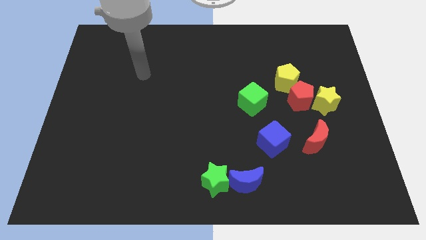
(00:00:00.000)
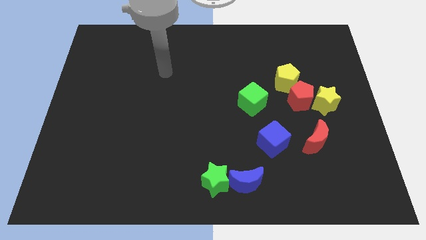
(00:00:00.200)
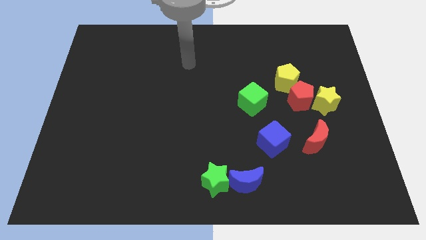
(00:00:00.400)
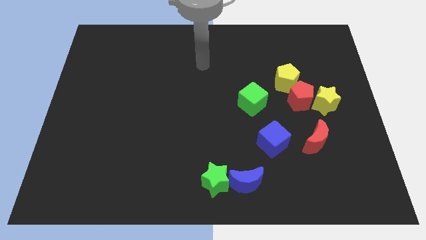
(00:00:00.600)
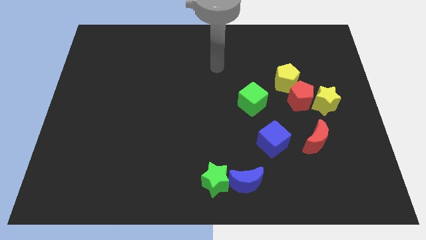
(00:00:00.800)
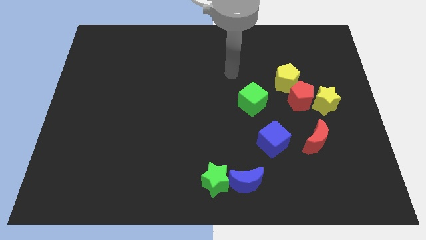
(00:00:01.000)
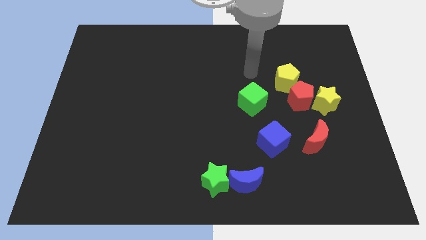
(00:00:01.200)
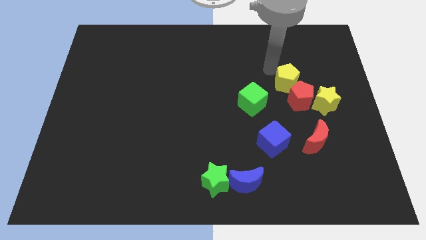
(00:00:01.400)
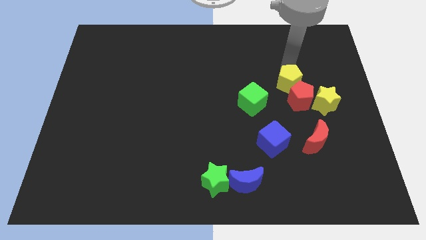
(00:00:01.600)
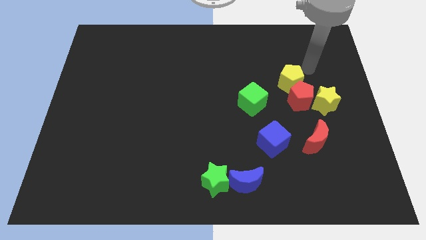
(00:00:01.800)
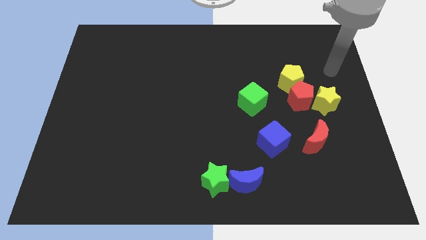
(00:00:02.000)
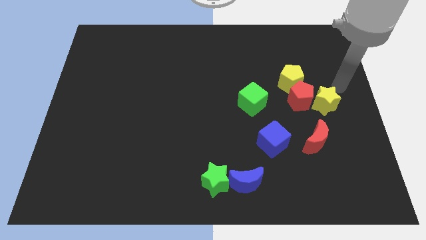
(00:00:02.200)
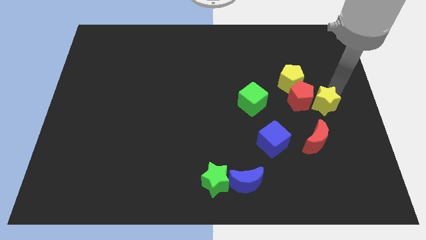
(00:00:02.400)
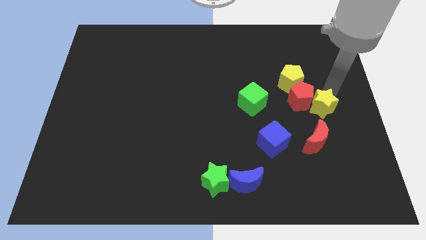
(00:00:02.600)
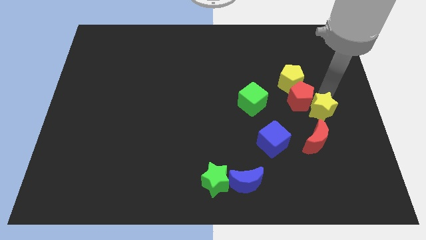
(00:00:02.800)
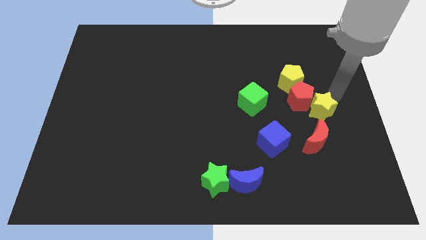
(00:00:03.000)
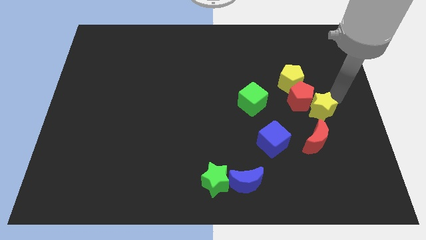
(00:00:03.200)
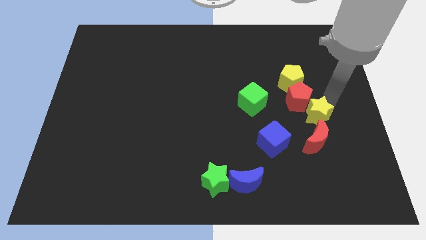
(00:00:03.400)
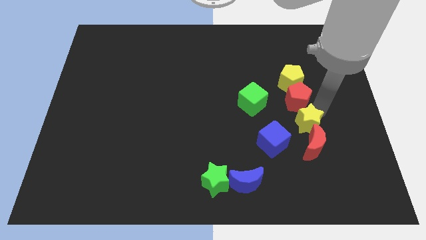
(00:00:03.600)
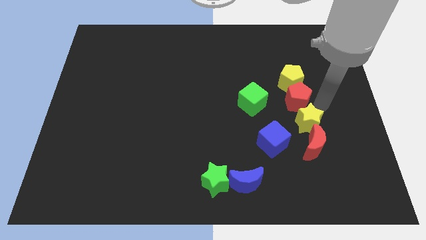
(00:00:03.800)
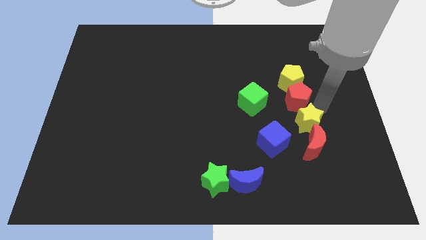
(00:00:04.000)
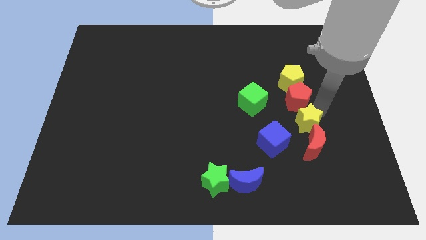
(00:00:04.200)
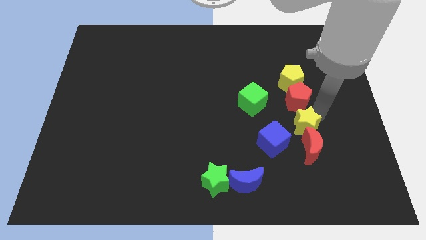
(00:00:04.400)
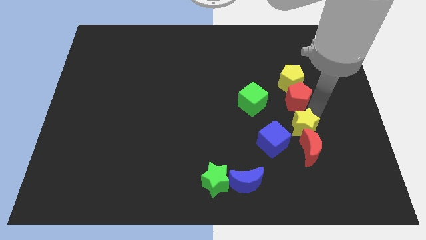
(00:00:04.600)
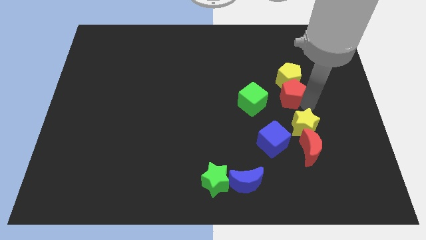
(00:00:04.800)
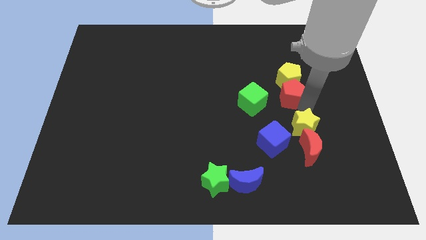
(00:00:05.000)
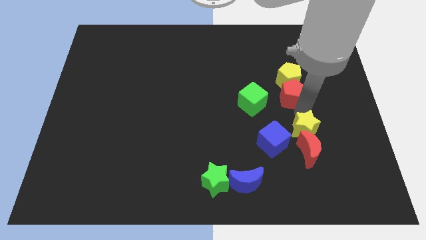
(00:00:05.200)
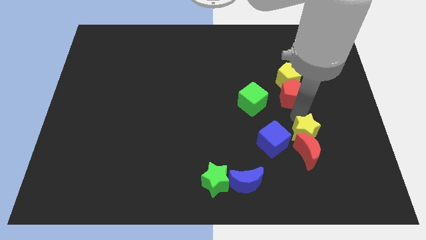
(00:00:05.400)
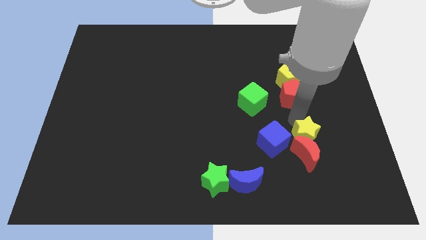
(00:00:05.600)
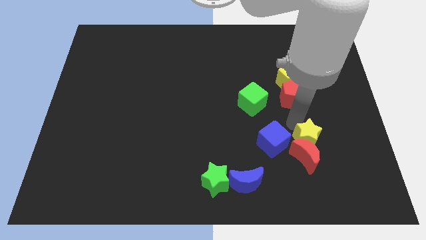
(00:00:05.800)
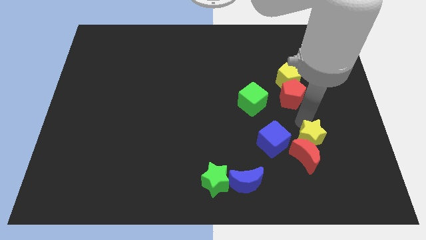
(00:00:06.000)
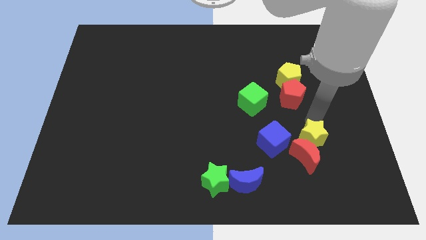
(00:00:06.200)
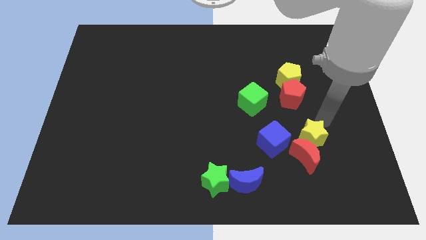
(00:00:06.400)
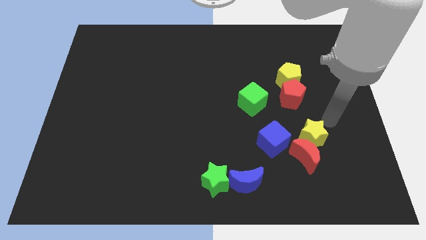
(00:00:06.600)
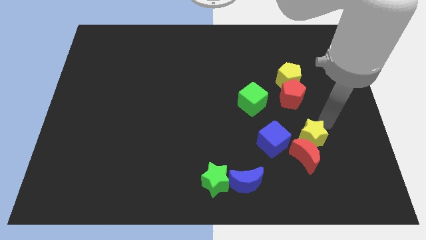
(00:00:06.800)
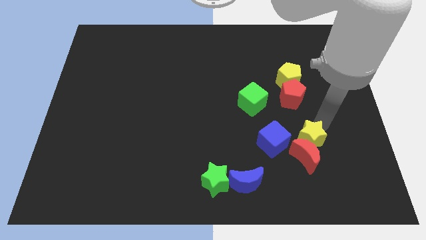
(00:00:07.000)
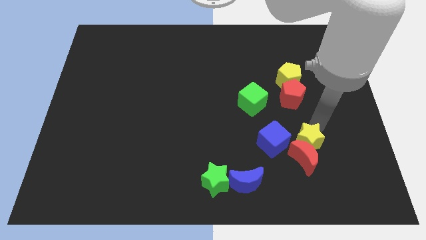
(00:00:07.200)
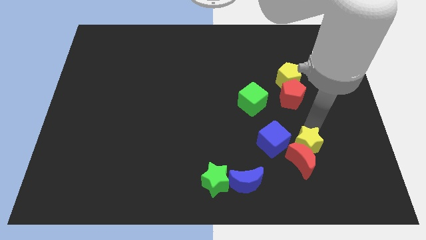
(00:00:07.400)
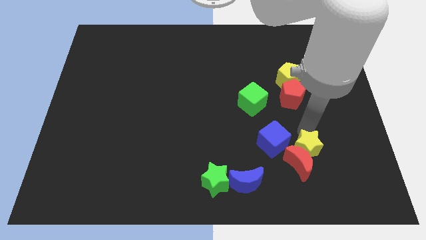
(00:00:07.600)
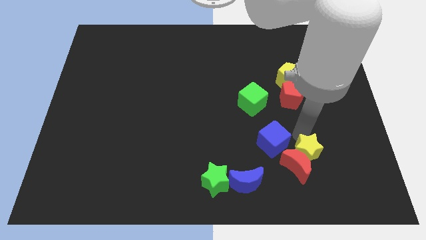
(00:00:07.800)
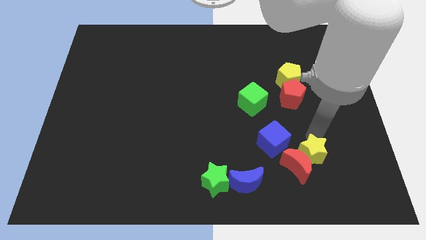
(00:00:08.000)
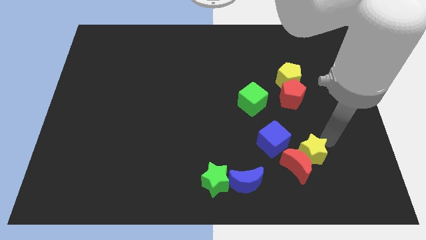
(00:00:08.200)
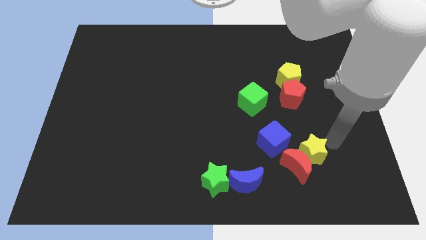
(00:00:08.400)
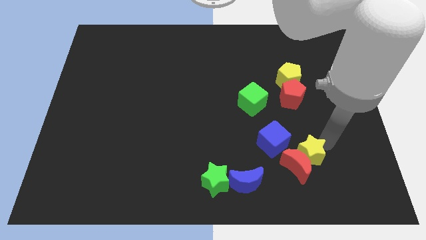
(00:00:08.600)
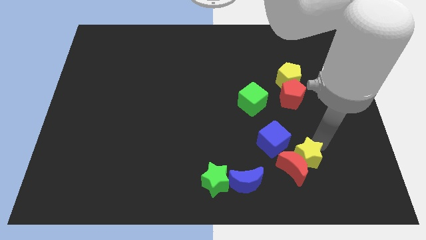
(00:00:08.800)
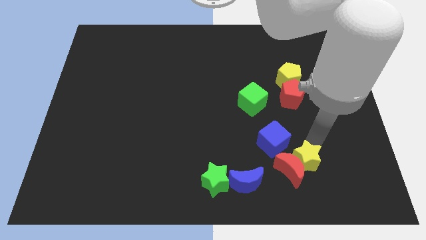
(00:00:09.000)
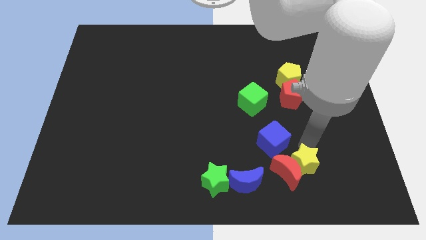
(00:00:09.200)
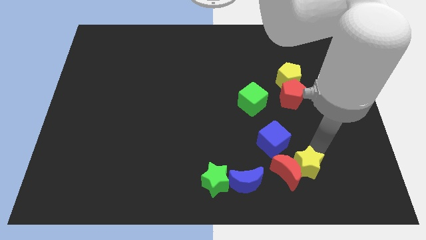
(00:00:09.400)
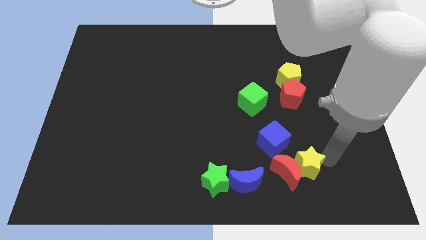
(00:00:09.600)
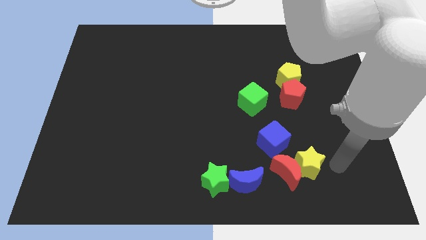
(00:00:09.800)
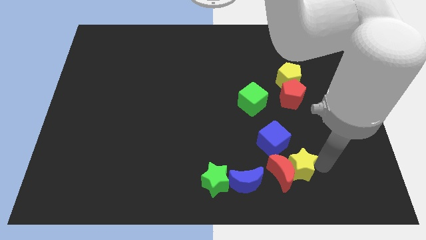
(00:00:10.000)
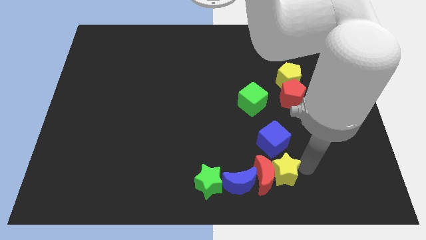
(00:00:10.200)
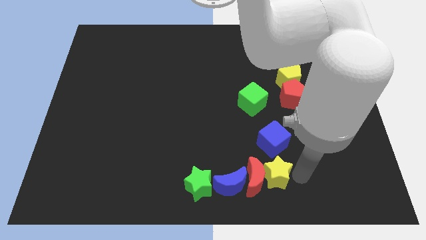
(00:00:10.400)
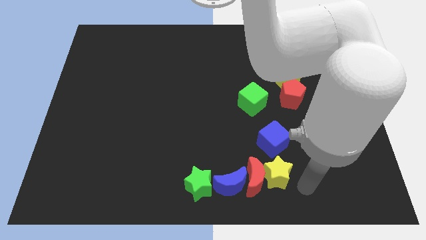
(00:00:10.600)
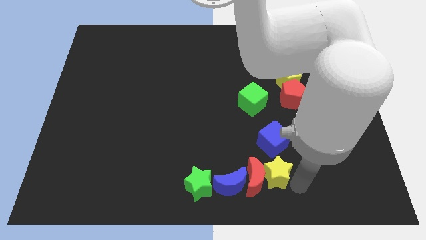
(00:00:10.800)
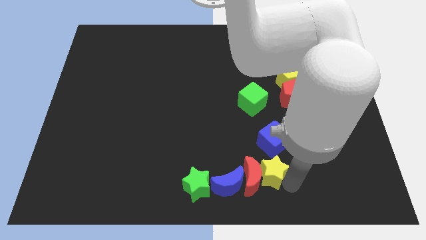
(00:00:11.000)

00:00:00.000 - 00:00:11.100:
put the yellow star diagonally down and to the left of the blue cube

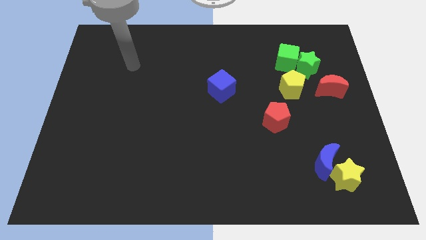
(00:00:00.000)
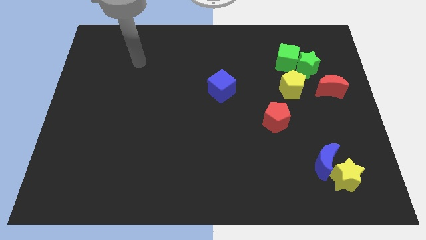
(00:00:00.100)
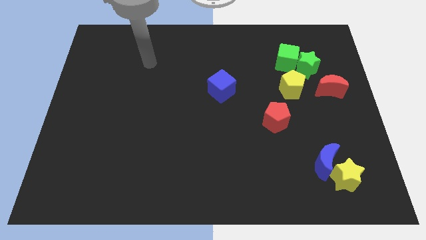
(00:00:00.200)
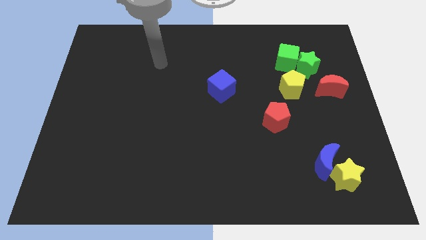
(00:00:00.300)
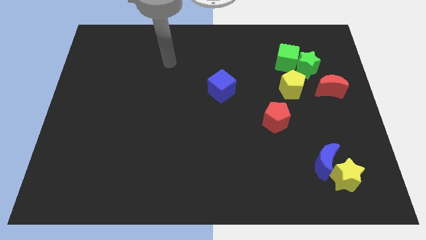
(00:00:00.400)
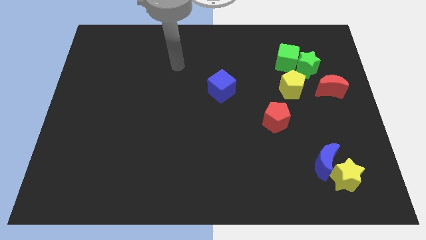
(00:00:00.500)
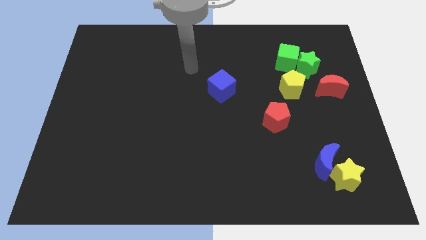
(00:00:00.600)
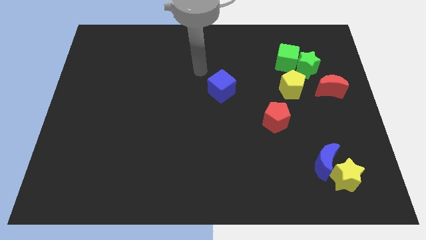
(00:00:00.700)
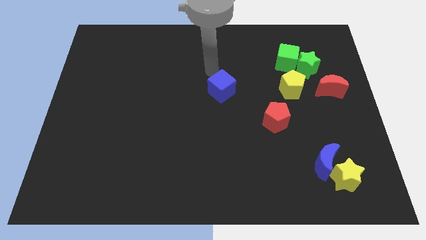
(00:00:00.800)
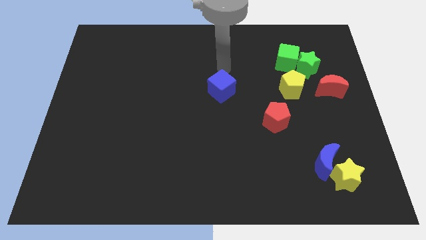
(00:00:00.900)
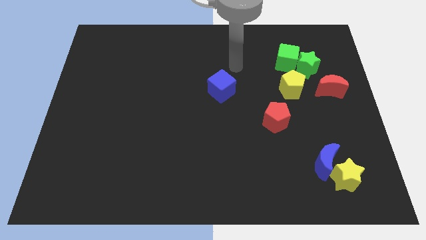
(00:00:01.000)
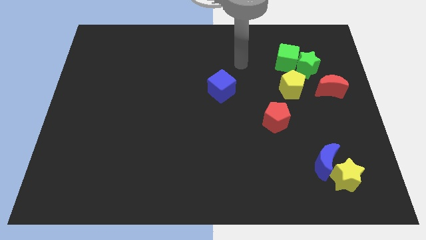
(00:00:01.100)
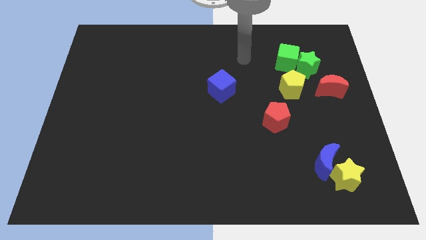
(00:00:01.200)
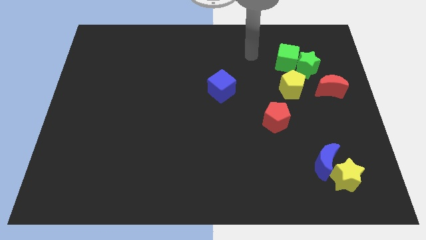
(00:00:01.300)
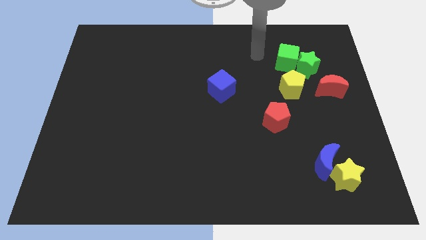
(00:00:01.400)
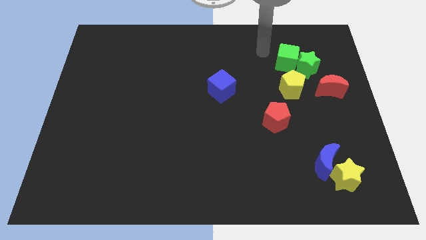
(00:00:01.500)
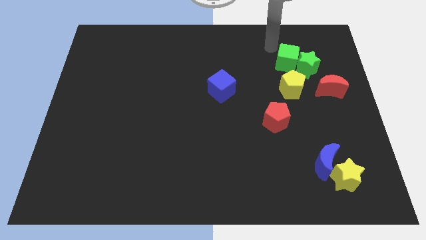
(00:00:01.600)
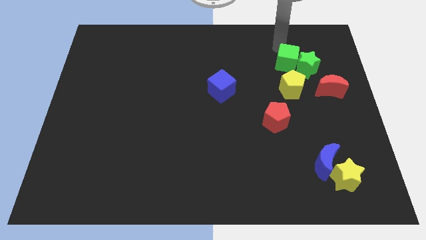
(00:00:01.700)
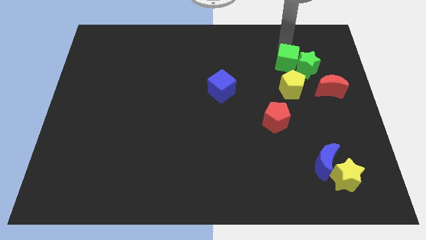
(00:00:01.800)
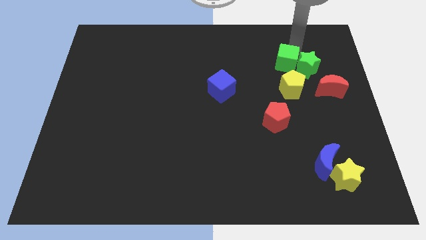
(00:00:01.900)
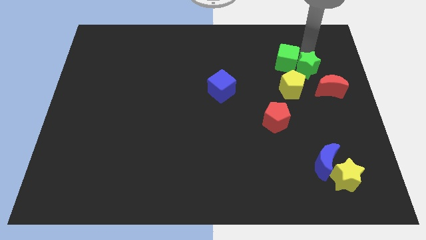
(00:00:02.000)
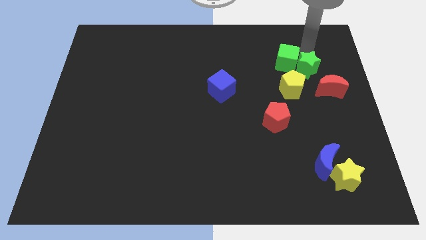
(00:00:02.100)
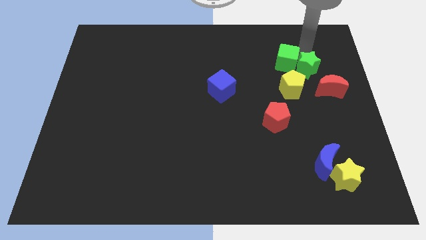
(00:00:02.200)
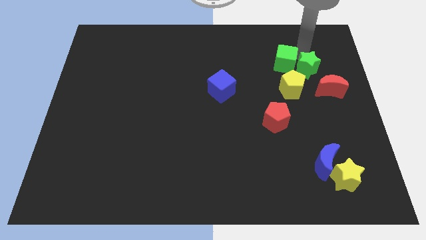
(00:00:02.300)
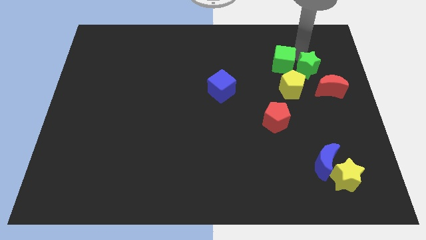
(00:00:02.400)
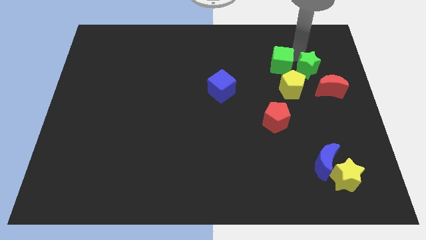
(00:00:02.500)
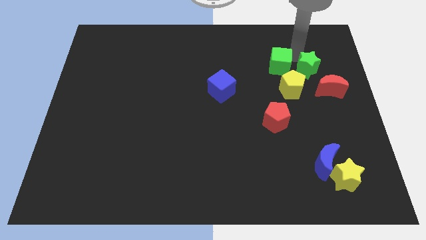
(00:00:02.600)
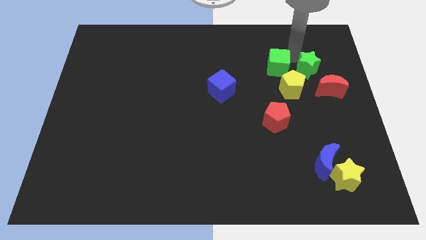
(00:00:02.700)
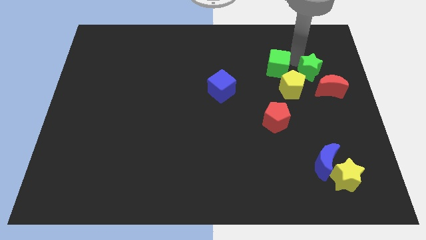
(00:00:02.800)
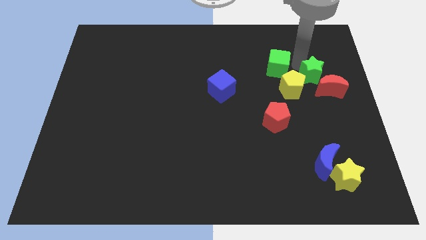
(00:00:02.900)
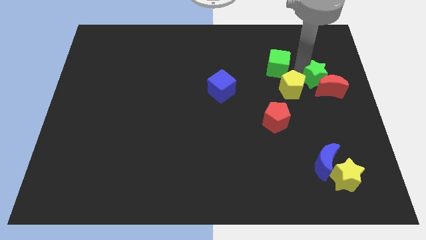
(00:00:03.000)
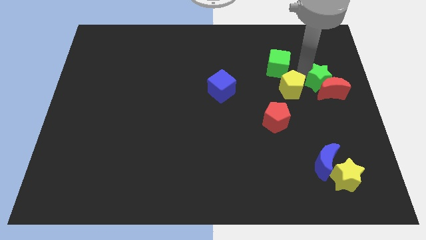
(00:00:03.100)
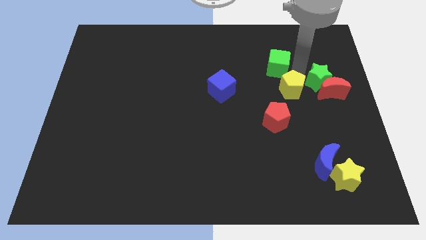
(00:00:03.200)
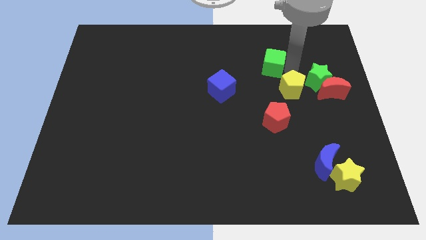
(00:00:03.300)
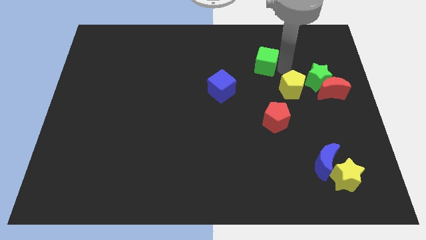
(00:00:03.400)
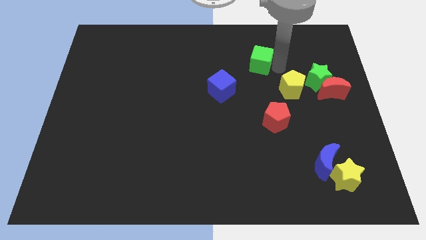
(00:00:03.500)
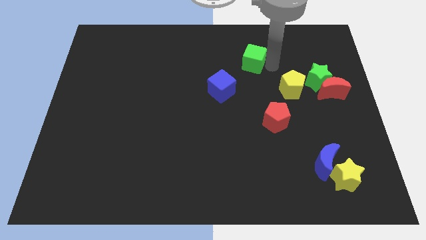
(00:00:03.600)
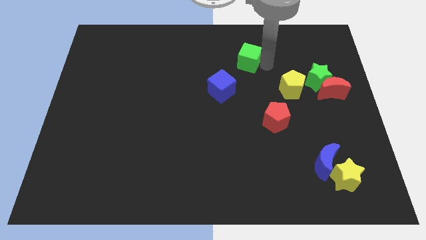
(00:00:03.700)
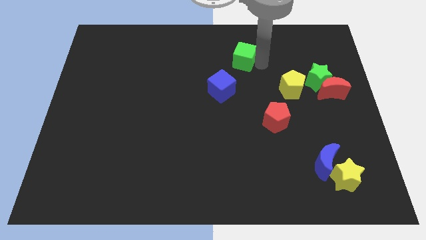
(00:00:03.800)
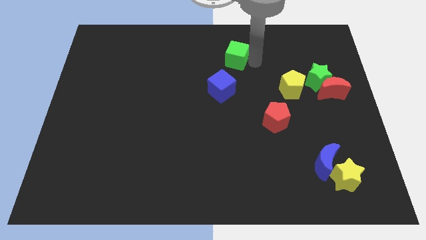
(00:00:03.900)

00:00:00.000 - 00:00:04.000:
slide the green cube above the blue cube
